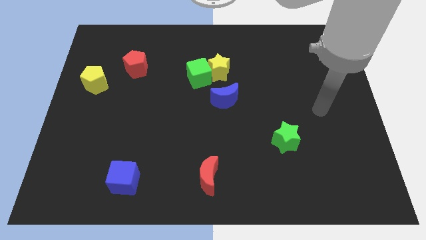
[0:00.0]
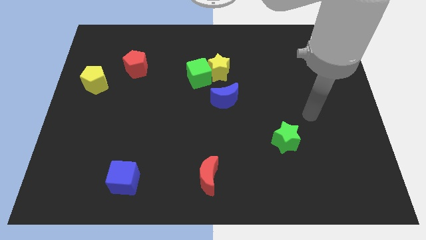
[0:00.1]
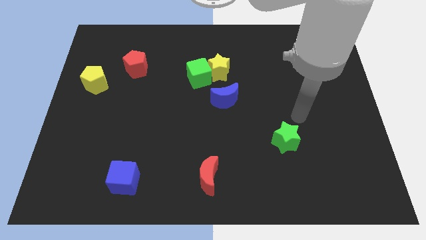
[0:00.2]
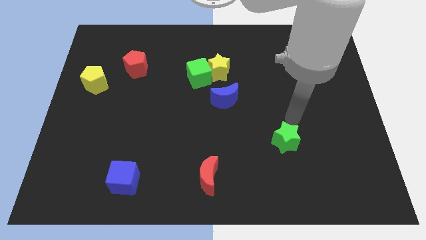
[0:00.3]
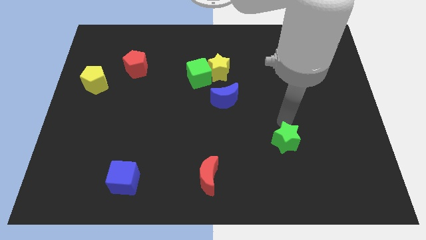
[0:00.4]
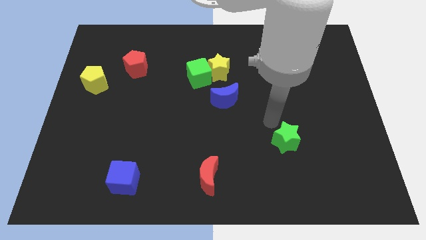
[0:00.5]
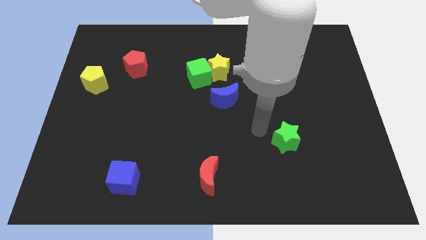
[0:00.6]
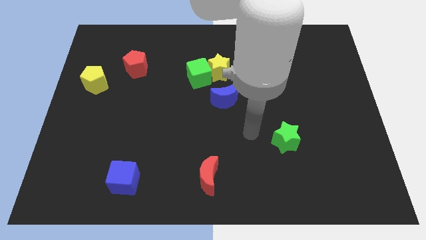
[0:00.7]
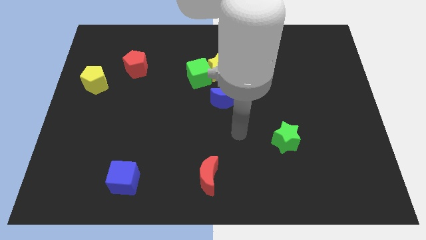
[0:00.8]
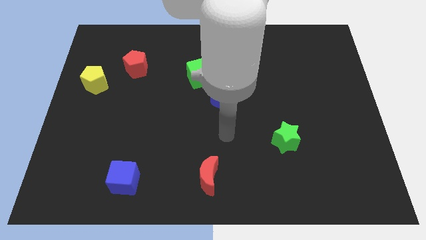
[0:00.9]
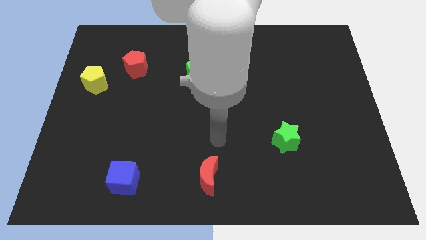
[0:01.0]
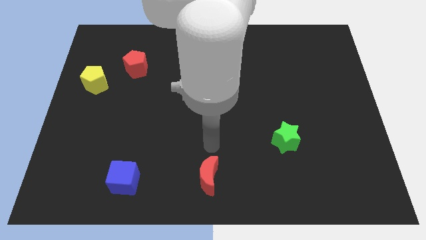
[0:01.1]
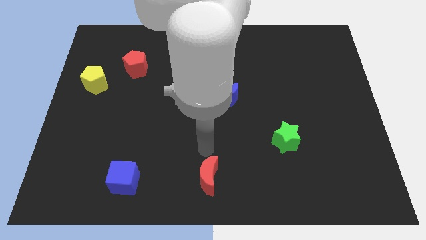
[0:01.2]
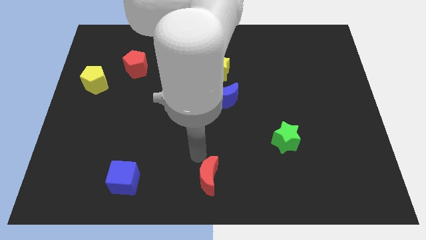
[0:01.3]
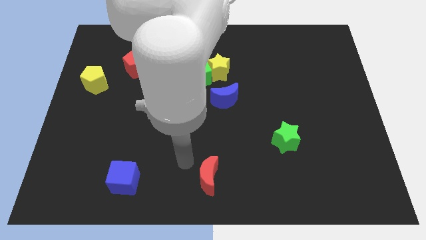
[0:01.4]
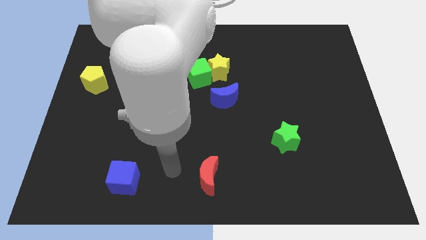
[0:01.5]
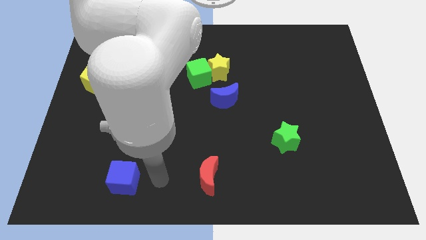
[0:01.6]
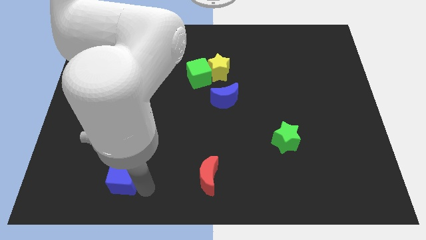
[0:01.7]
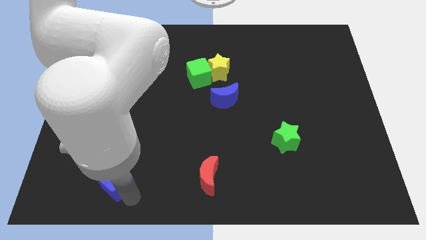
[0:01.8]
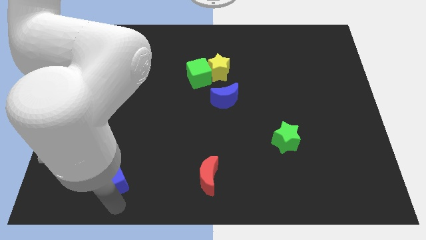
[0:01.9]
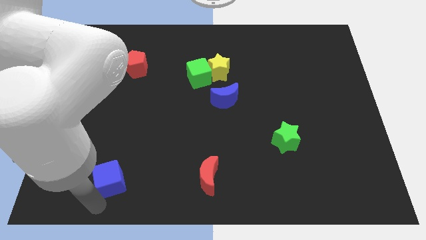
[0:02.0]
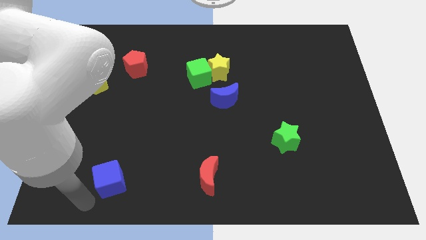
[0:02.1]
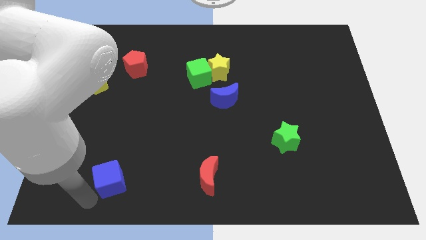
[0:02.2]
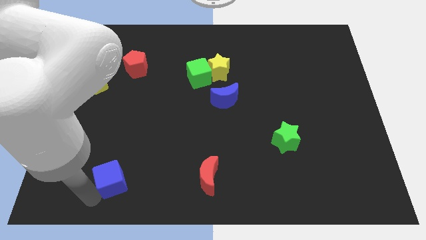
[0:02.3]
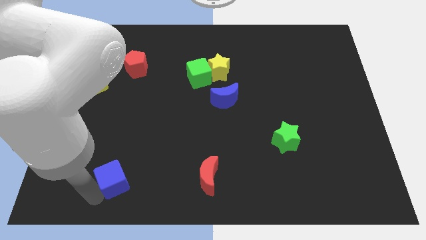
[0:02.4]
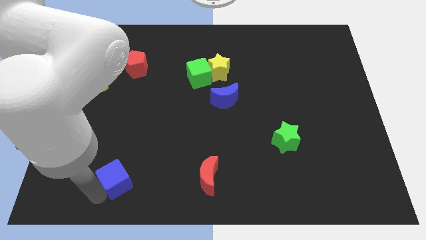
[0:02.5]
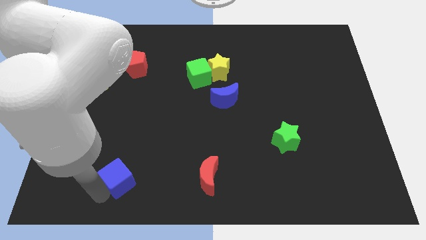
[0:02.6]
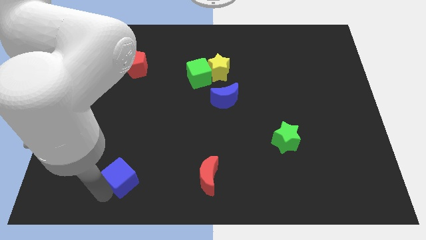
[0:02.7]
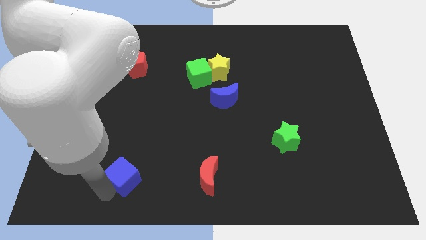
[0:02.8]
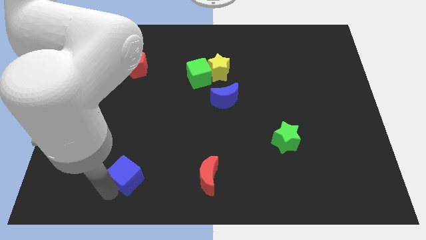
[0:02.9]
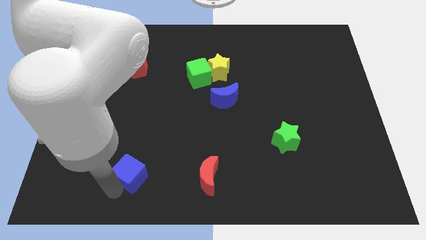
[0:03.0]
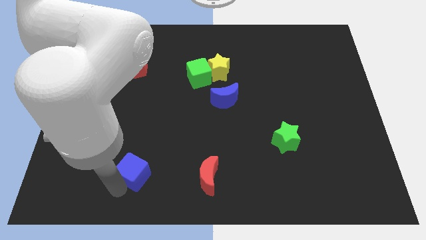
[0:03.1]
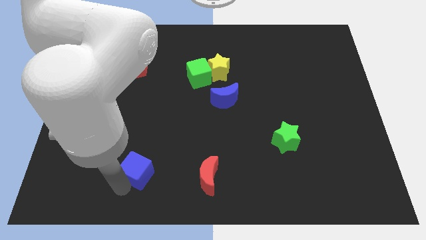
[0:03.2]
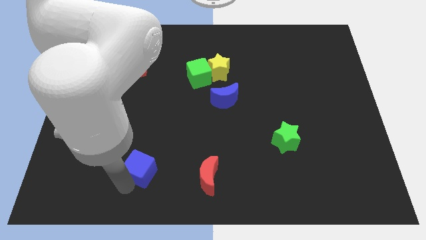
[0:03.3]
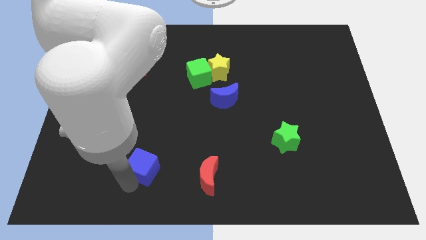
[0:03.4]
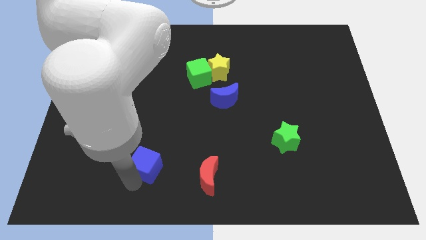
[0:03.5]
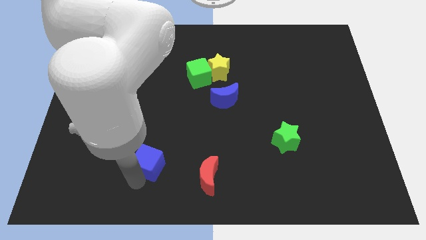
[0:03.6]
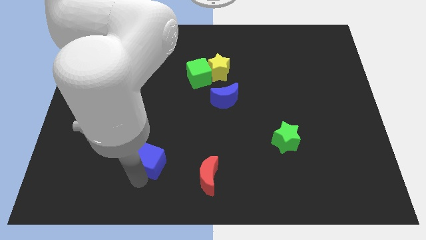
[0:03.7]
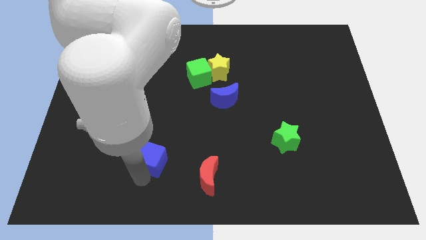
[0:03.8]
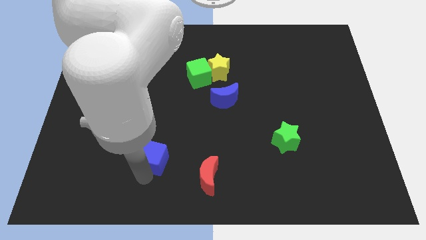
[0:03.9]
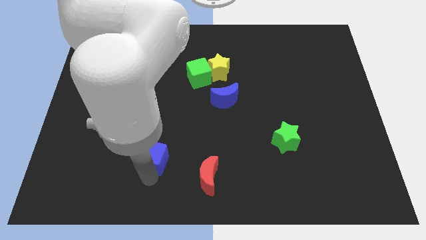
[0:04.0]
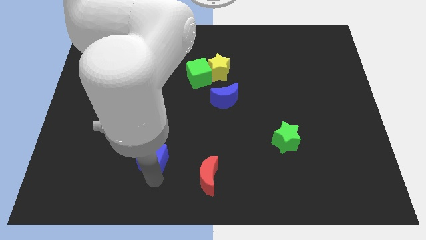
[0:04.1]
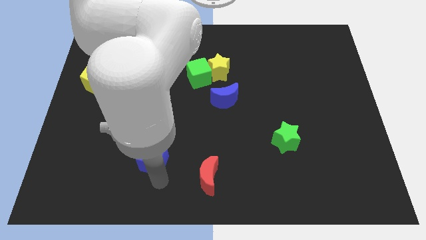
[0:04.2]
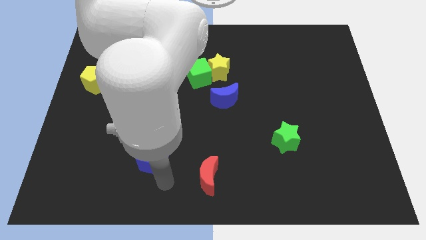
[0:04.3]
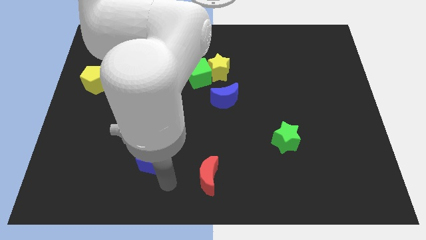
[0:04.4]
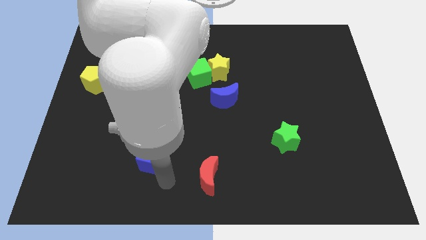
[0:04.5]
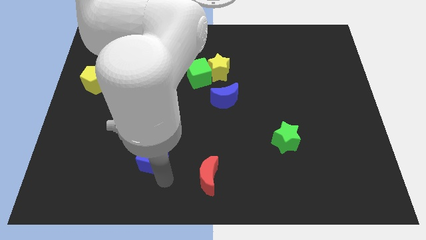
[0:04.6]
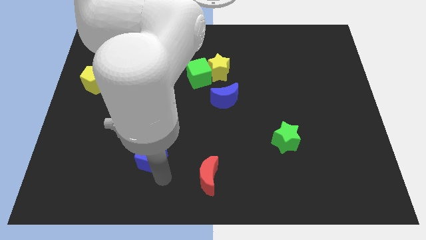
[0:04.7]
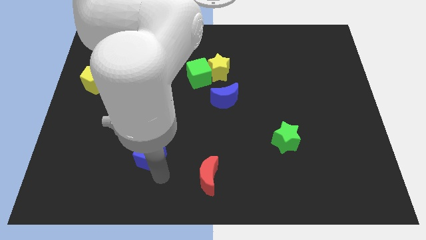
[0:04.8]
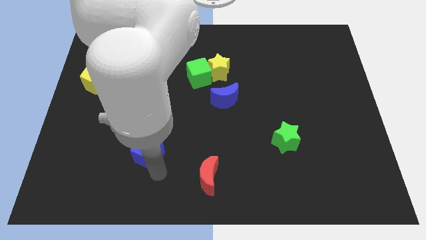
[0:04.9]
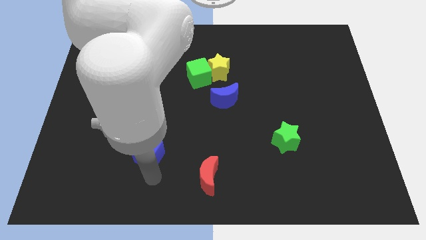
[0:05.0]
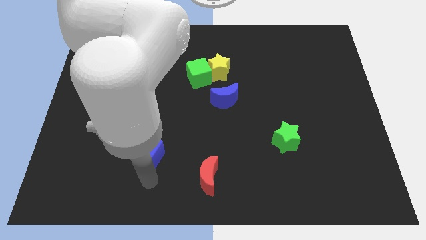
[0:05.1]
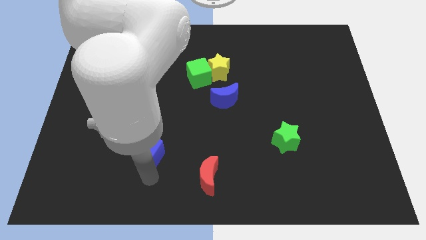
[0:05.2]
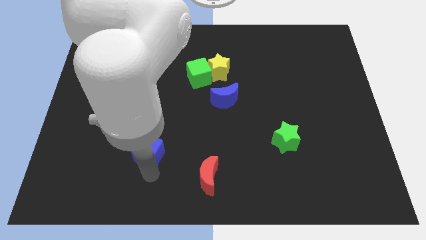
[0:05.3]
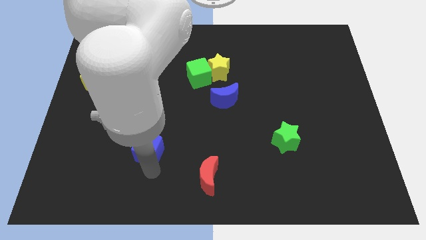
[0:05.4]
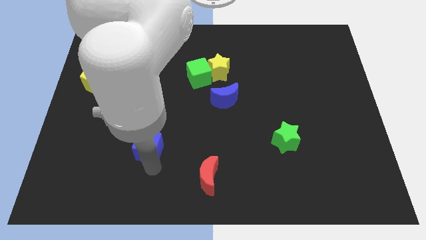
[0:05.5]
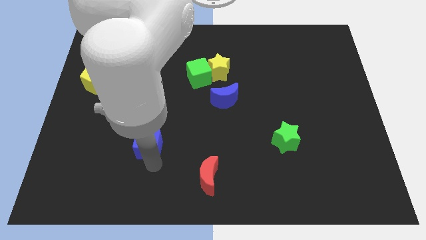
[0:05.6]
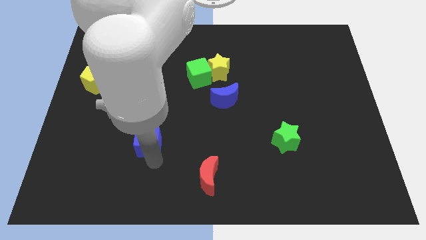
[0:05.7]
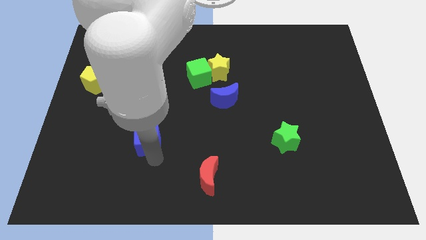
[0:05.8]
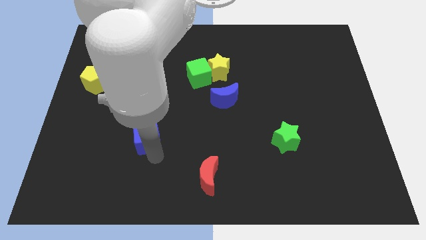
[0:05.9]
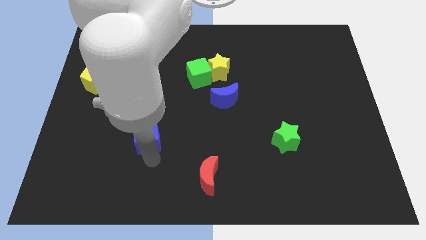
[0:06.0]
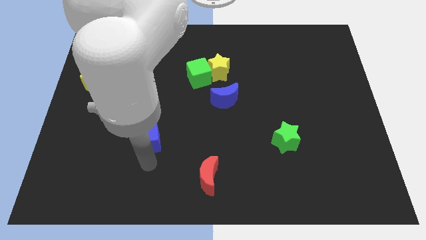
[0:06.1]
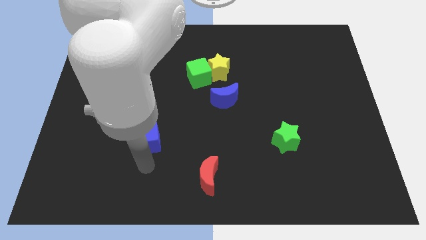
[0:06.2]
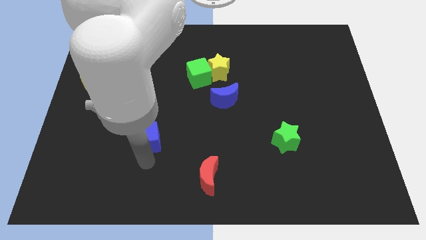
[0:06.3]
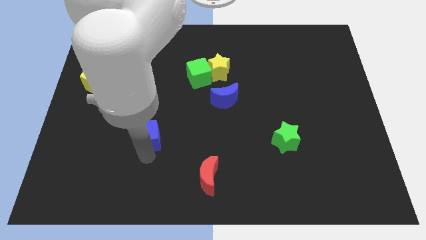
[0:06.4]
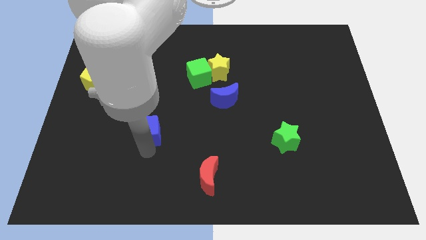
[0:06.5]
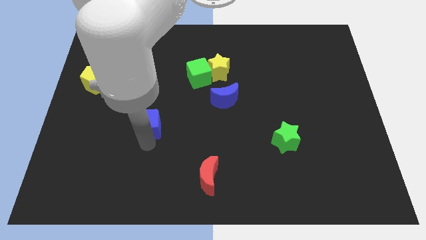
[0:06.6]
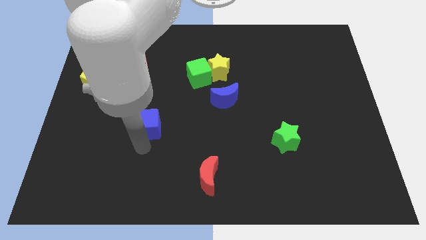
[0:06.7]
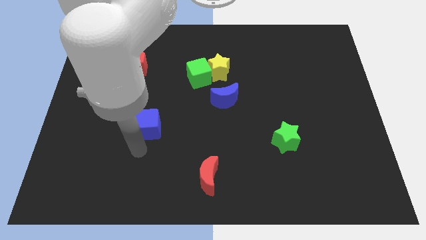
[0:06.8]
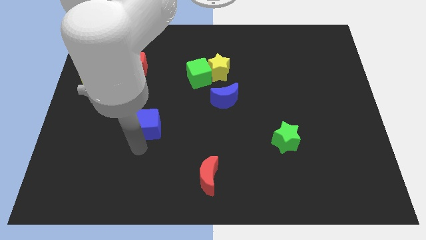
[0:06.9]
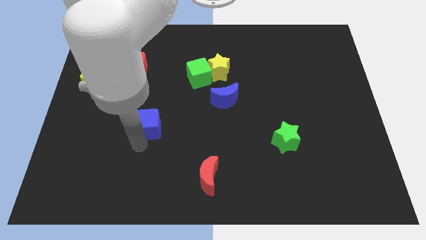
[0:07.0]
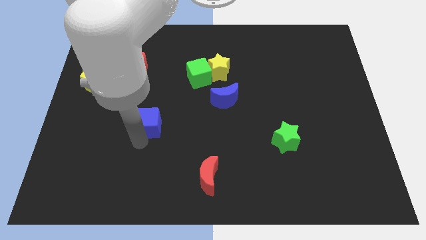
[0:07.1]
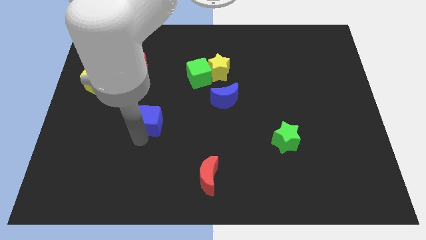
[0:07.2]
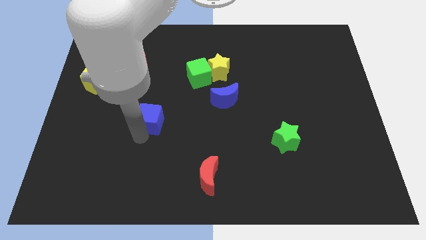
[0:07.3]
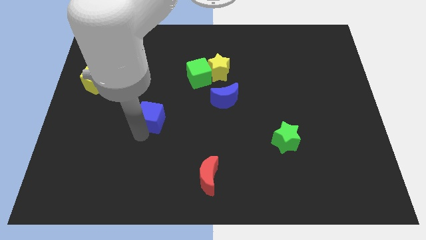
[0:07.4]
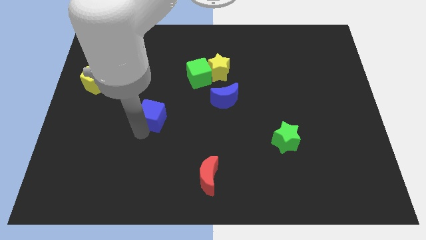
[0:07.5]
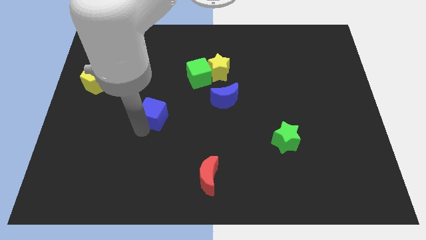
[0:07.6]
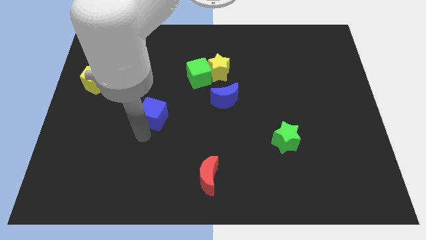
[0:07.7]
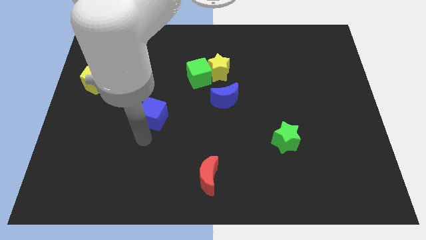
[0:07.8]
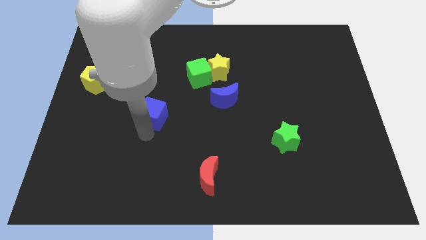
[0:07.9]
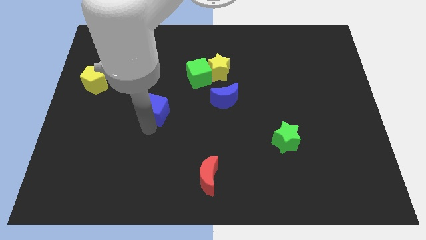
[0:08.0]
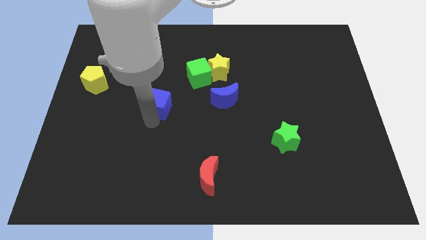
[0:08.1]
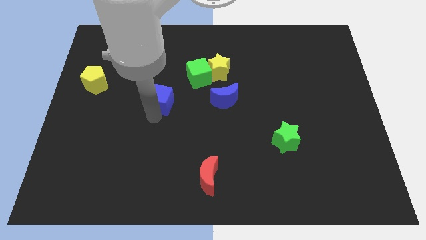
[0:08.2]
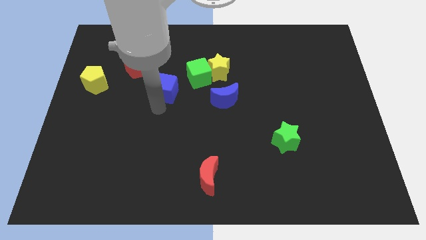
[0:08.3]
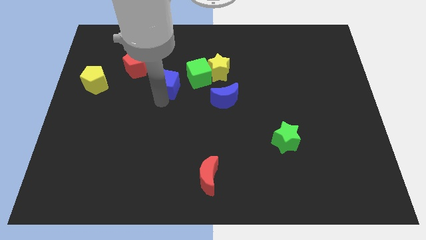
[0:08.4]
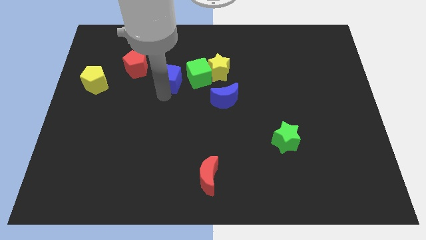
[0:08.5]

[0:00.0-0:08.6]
move the blue cube right of the red pentagon
